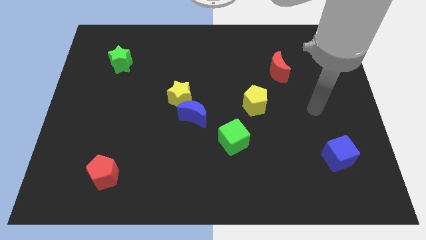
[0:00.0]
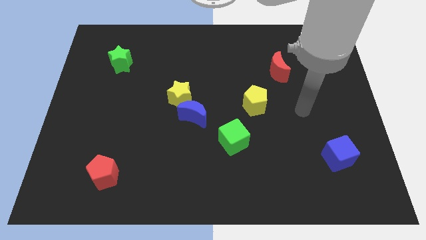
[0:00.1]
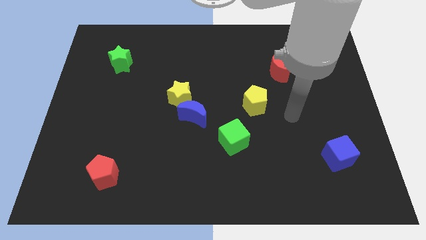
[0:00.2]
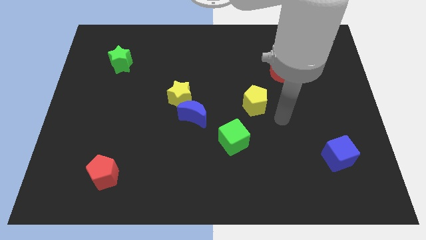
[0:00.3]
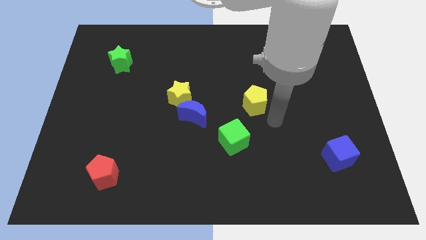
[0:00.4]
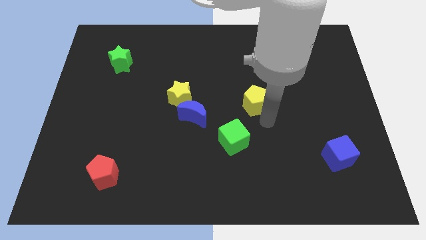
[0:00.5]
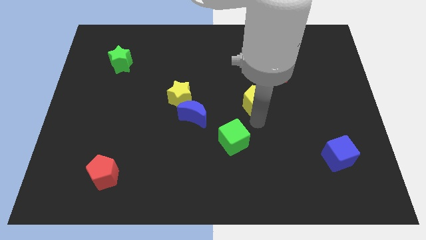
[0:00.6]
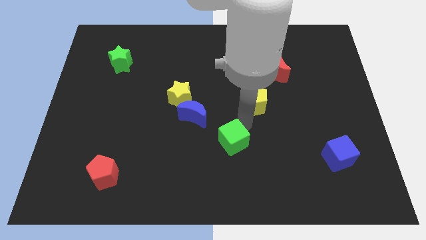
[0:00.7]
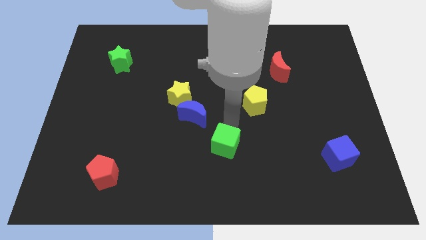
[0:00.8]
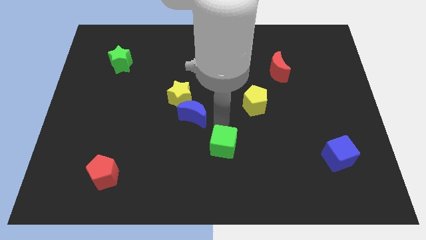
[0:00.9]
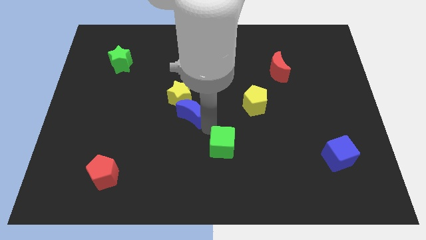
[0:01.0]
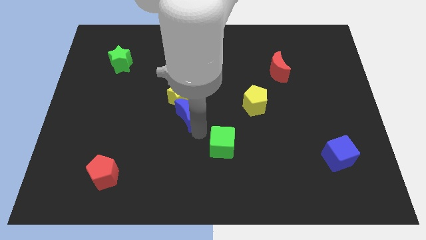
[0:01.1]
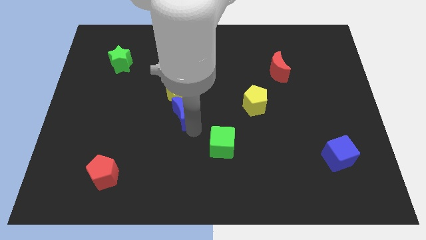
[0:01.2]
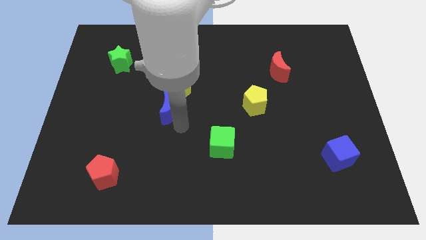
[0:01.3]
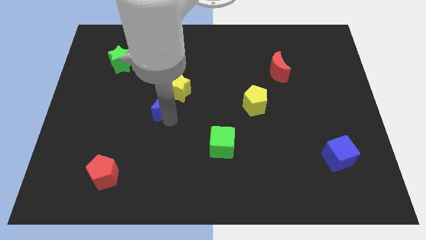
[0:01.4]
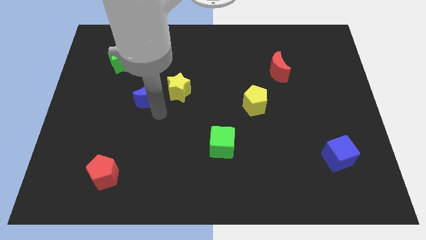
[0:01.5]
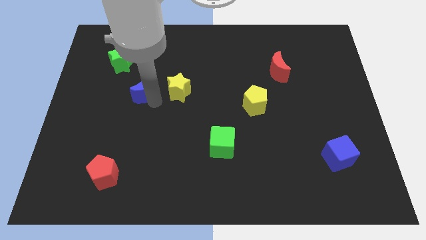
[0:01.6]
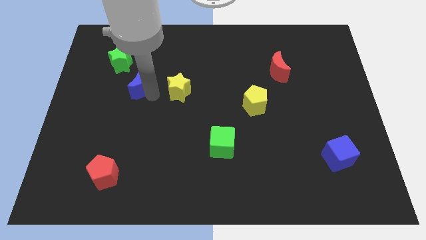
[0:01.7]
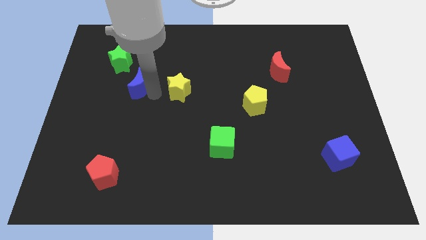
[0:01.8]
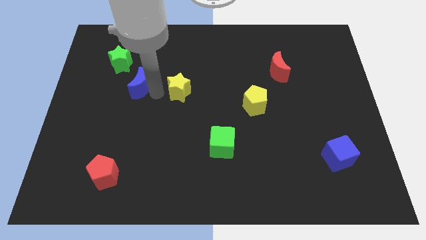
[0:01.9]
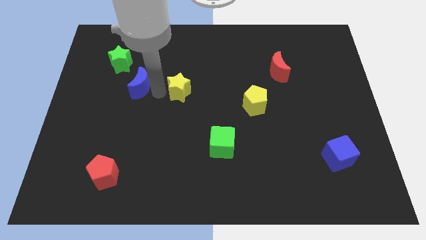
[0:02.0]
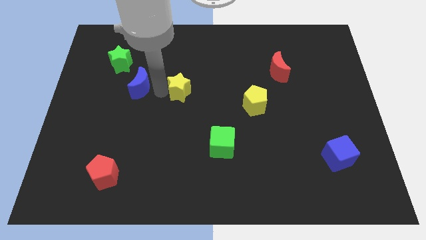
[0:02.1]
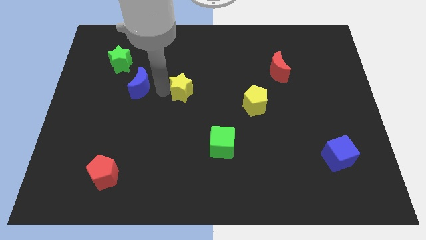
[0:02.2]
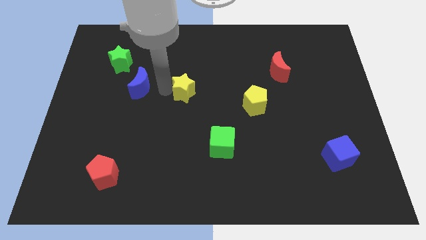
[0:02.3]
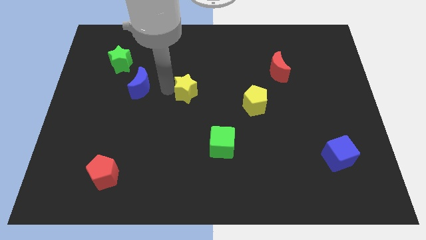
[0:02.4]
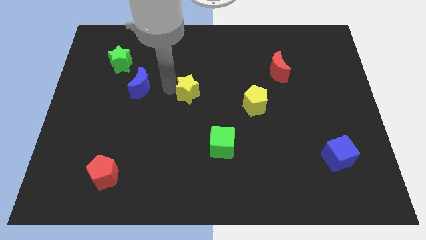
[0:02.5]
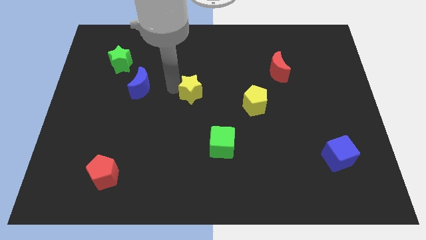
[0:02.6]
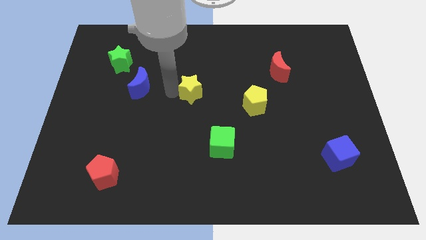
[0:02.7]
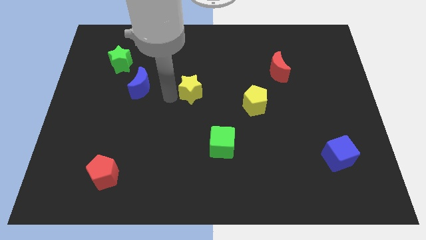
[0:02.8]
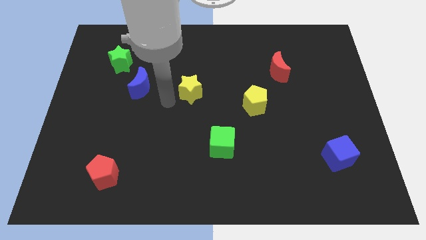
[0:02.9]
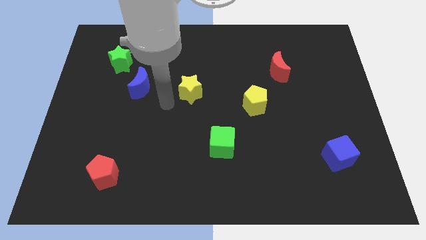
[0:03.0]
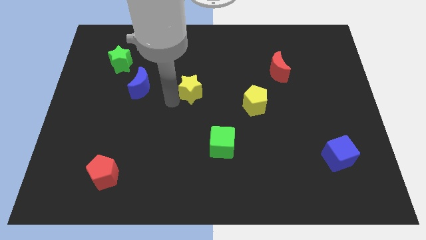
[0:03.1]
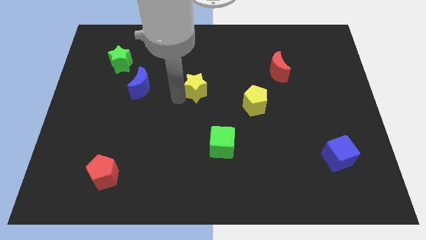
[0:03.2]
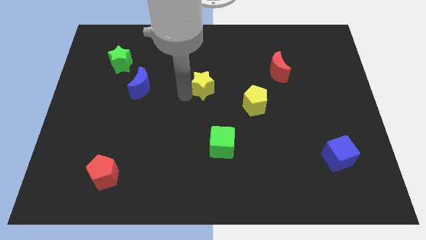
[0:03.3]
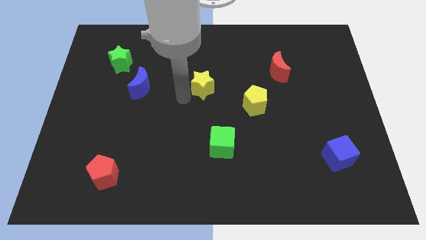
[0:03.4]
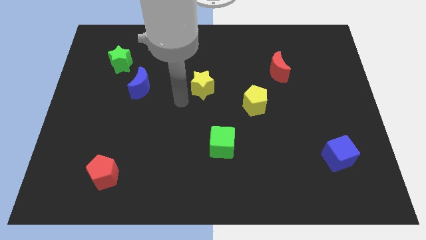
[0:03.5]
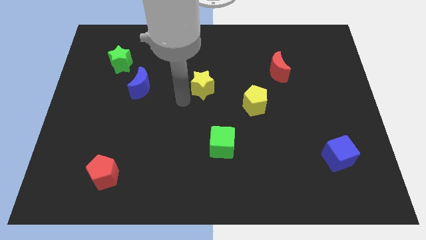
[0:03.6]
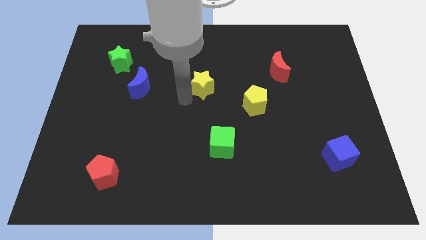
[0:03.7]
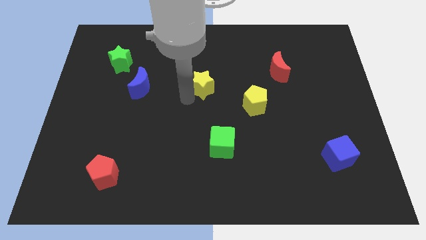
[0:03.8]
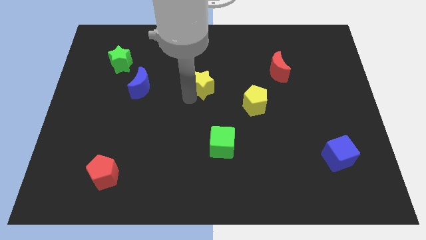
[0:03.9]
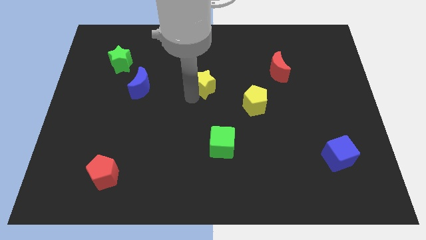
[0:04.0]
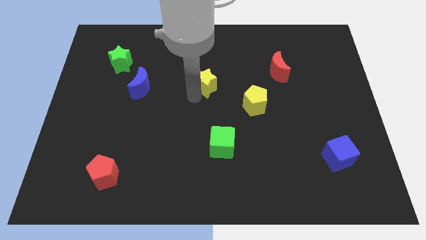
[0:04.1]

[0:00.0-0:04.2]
move the yellow star somewhat up and to the right

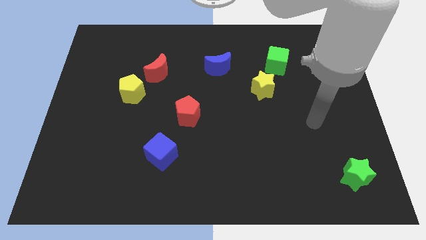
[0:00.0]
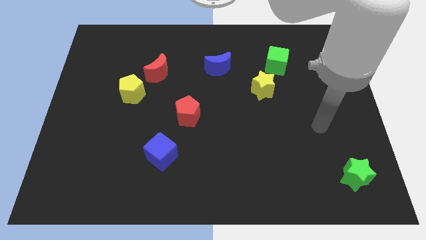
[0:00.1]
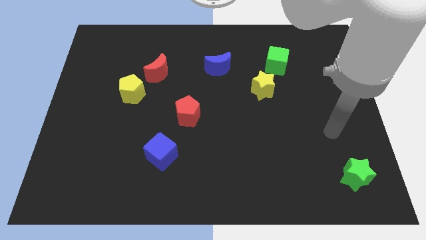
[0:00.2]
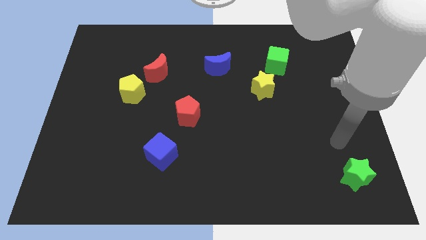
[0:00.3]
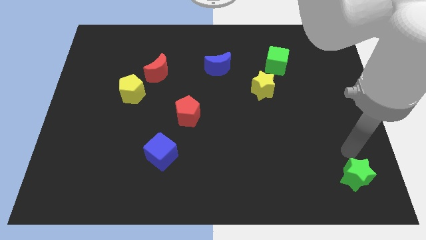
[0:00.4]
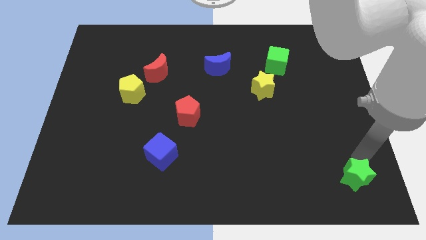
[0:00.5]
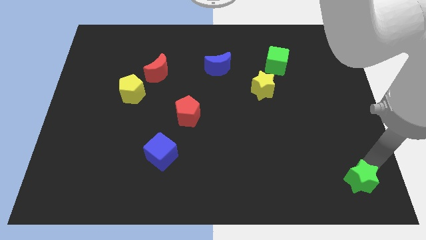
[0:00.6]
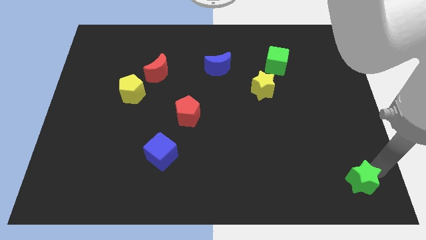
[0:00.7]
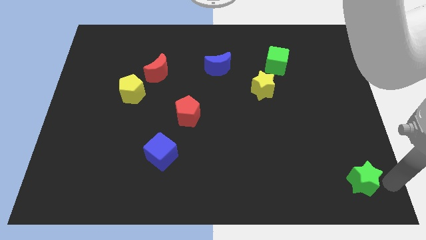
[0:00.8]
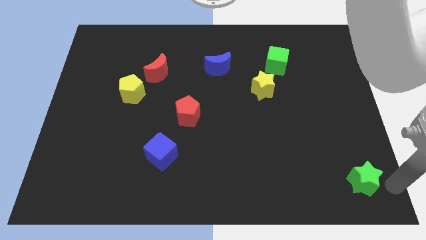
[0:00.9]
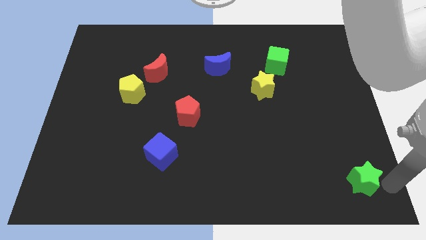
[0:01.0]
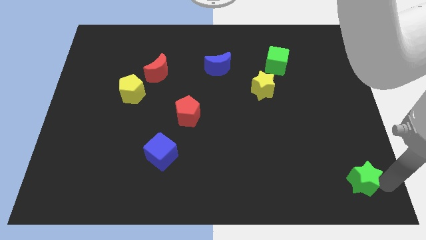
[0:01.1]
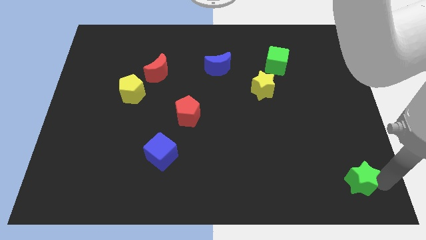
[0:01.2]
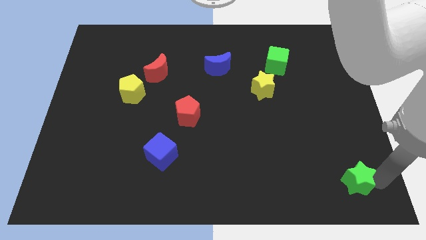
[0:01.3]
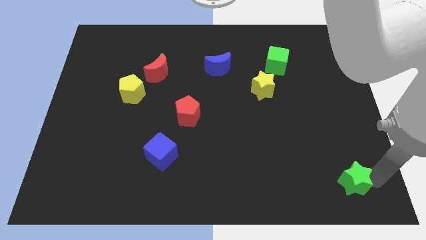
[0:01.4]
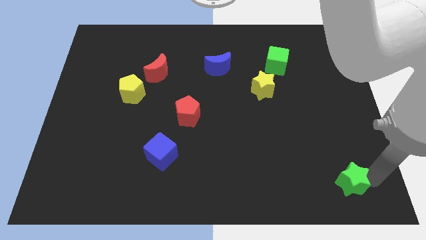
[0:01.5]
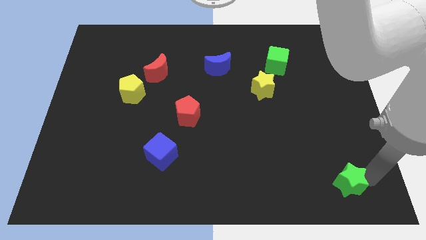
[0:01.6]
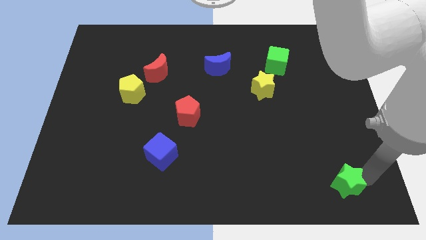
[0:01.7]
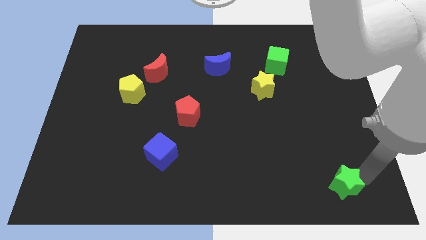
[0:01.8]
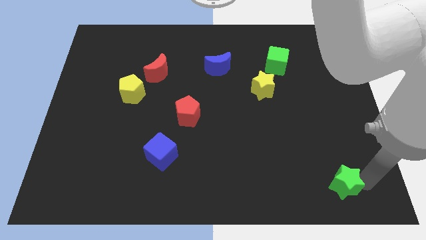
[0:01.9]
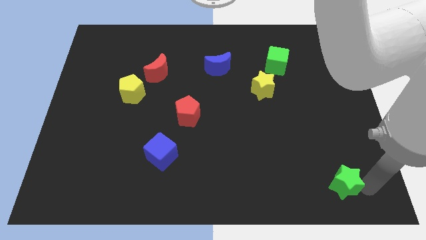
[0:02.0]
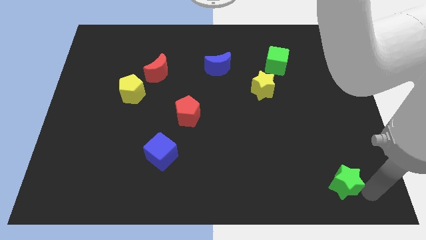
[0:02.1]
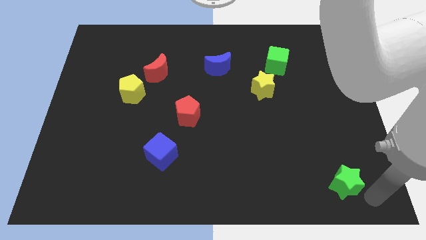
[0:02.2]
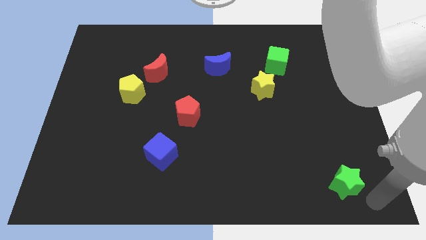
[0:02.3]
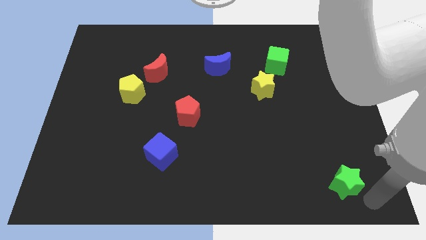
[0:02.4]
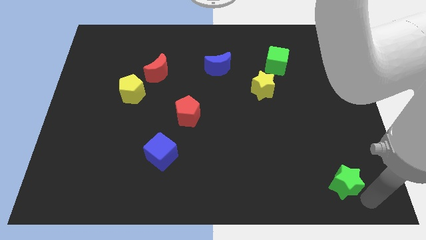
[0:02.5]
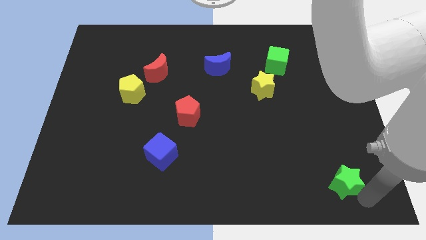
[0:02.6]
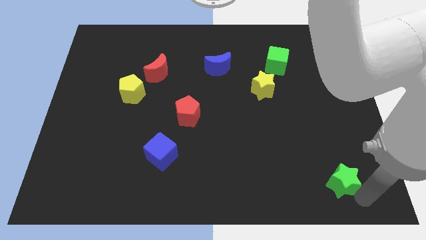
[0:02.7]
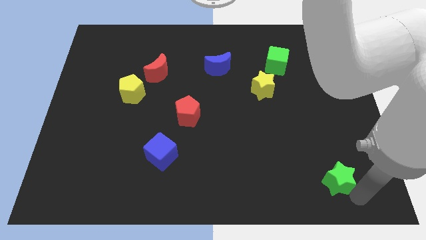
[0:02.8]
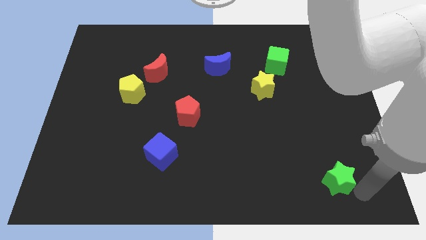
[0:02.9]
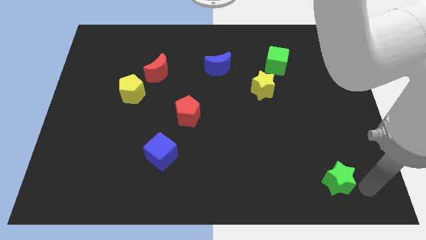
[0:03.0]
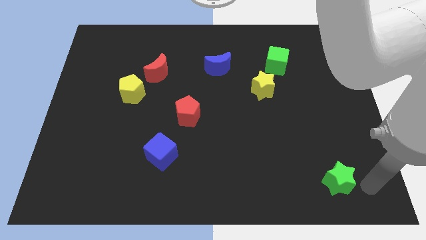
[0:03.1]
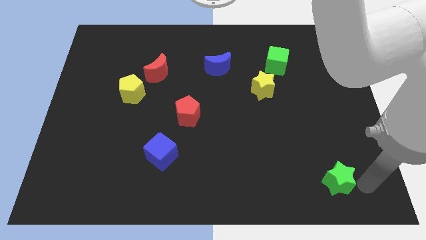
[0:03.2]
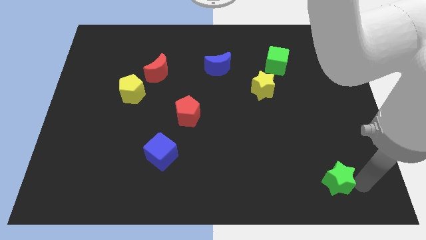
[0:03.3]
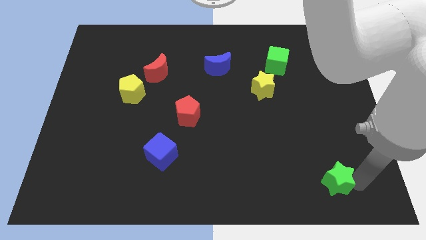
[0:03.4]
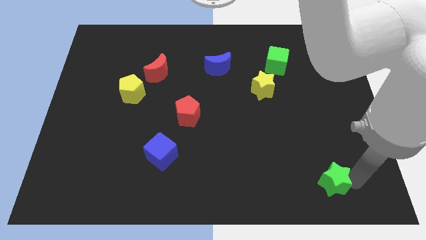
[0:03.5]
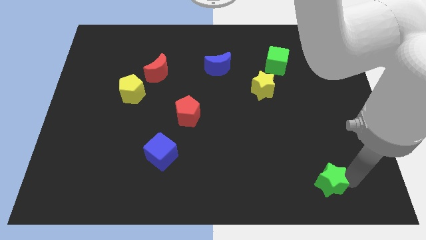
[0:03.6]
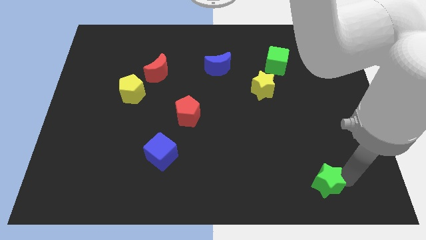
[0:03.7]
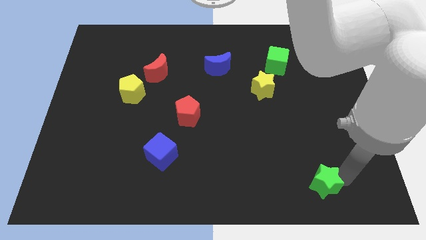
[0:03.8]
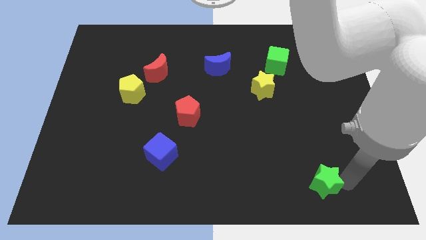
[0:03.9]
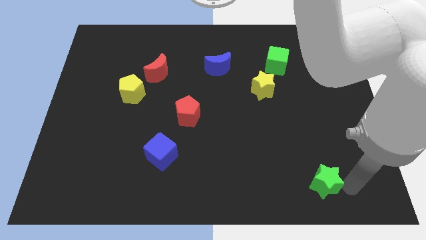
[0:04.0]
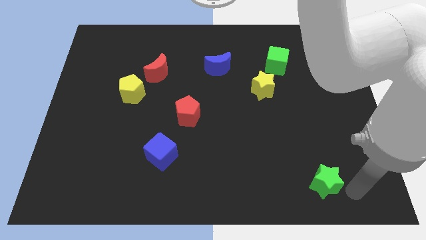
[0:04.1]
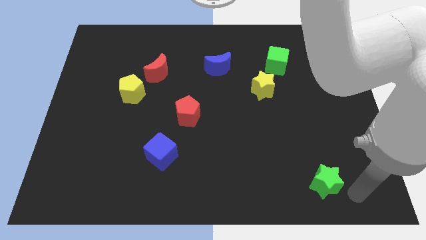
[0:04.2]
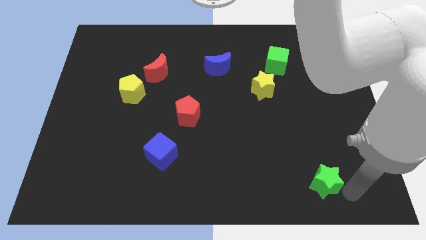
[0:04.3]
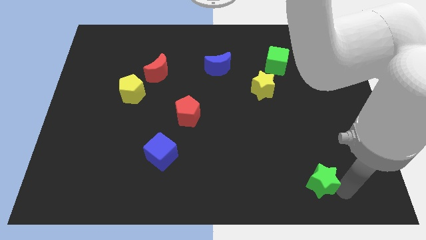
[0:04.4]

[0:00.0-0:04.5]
move the green star a little to the left
